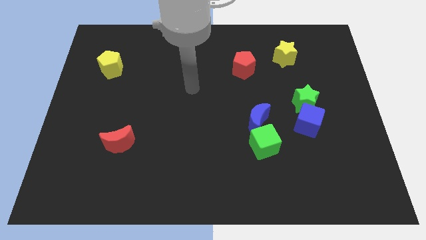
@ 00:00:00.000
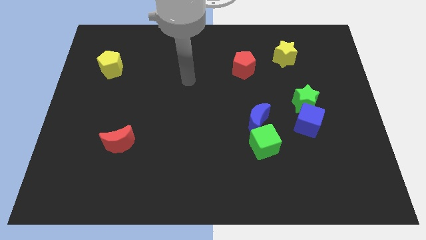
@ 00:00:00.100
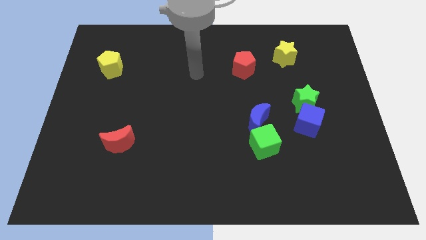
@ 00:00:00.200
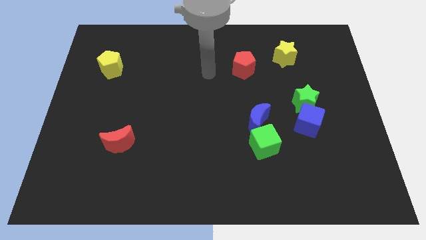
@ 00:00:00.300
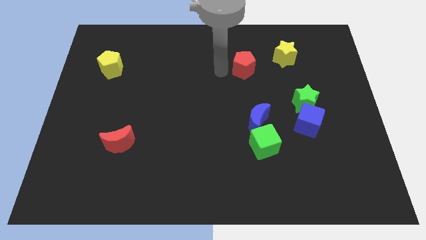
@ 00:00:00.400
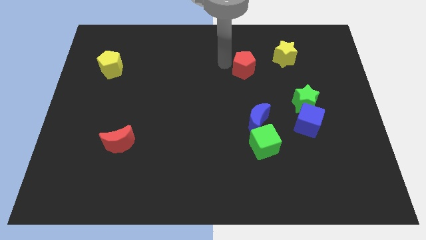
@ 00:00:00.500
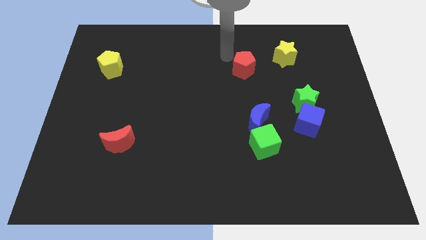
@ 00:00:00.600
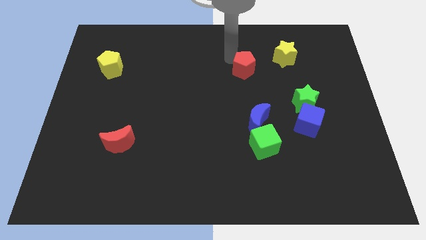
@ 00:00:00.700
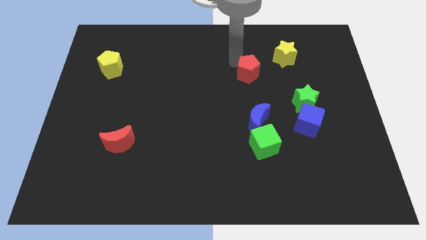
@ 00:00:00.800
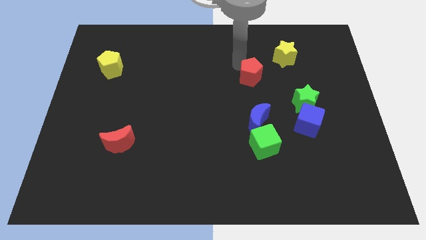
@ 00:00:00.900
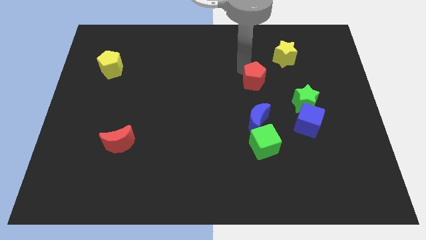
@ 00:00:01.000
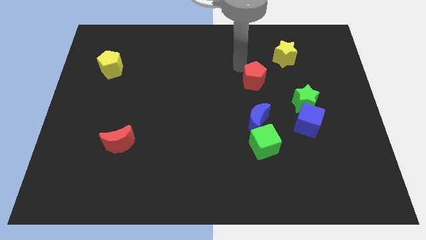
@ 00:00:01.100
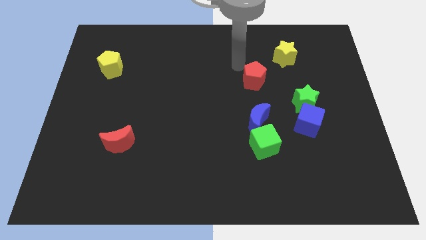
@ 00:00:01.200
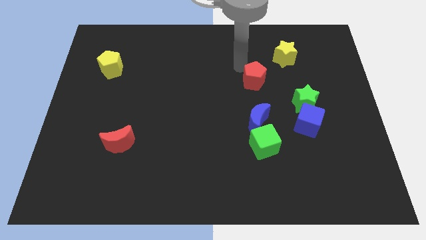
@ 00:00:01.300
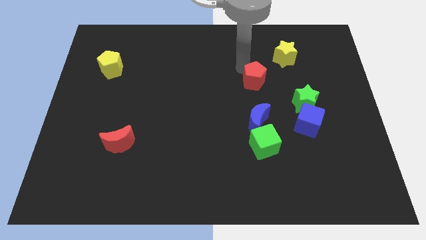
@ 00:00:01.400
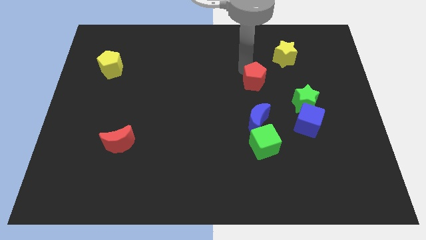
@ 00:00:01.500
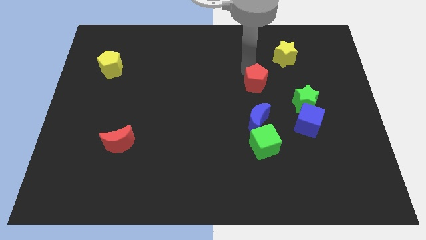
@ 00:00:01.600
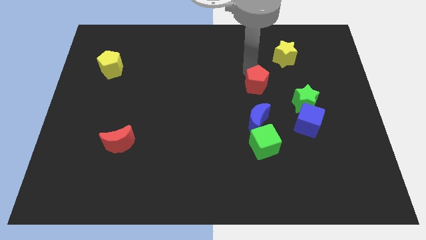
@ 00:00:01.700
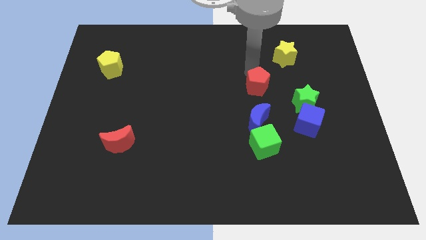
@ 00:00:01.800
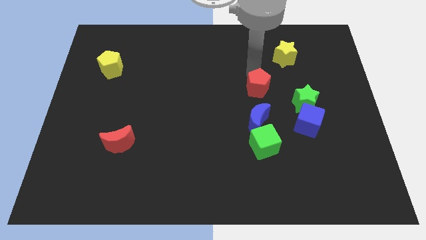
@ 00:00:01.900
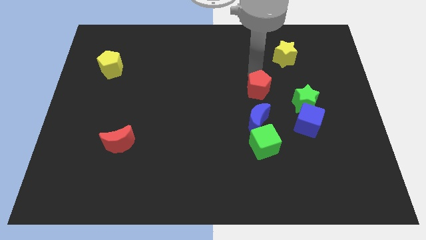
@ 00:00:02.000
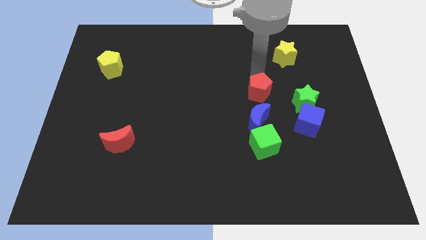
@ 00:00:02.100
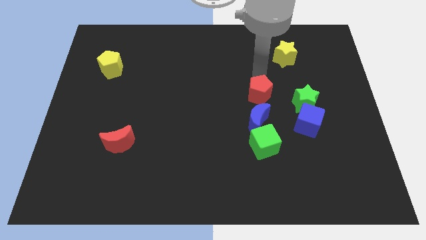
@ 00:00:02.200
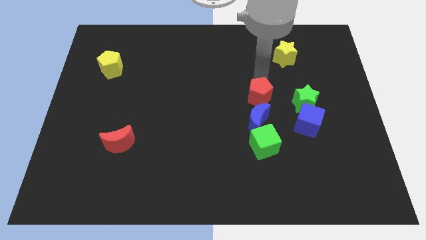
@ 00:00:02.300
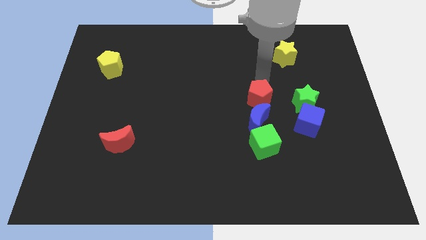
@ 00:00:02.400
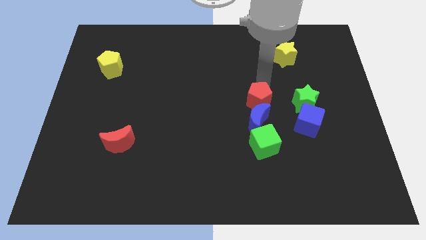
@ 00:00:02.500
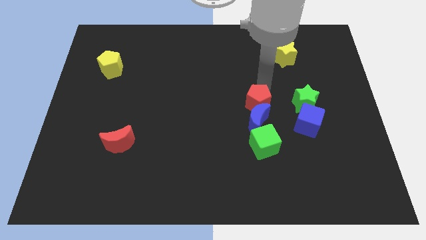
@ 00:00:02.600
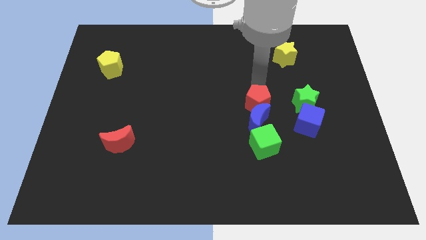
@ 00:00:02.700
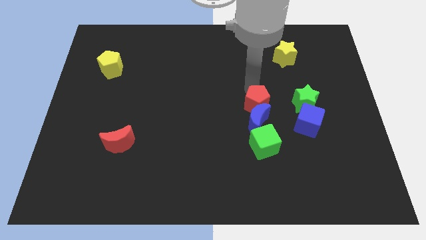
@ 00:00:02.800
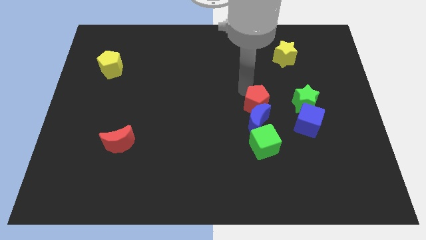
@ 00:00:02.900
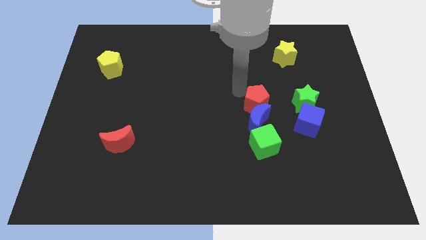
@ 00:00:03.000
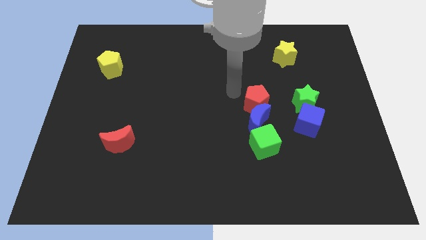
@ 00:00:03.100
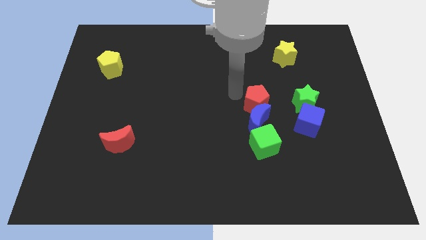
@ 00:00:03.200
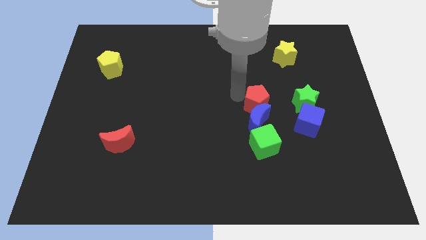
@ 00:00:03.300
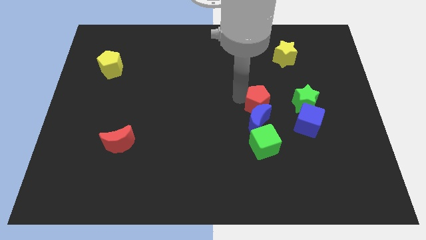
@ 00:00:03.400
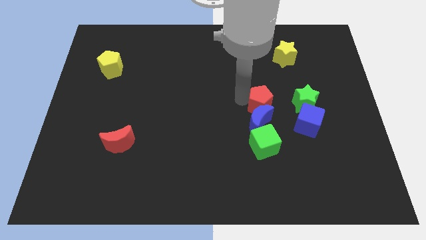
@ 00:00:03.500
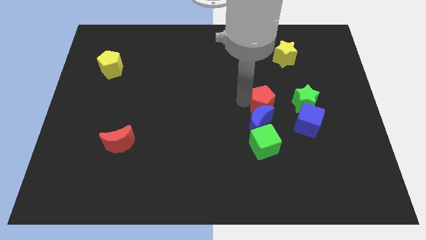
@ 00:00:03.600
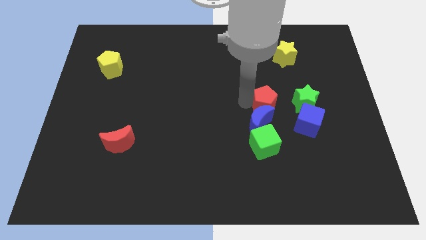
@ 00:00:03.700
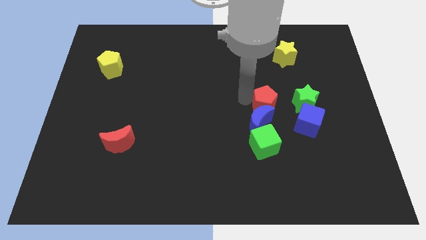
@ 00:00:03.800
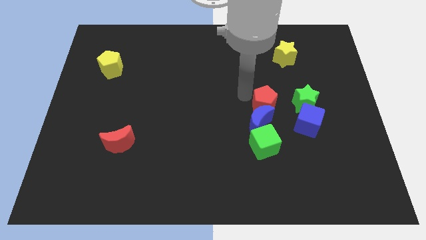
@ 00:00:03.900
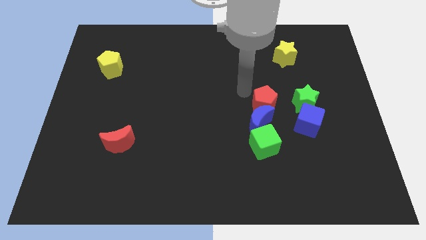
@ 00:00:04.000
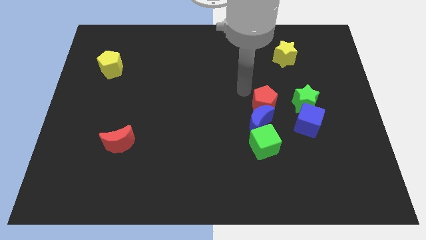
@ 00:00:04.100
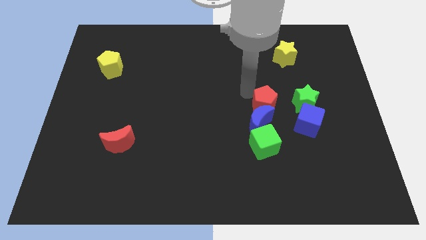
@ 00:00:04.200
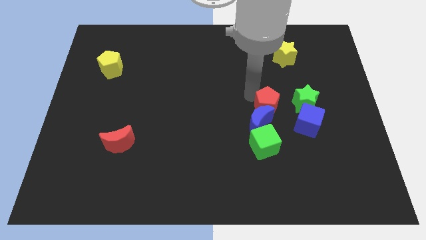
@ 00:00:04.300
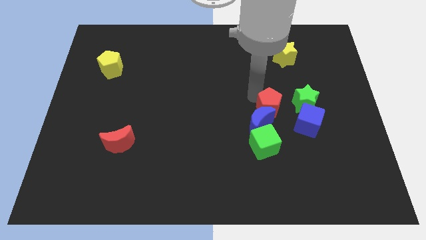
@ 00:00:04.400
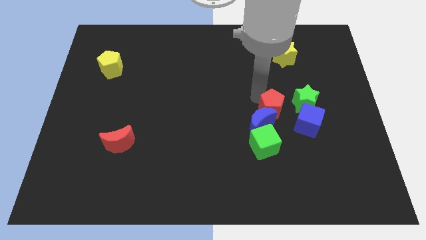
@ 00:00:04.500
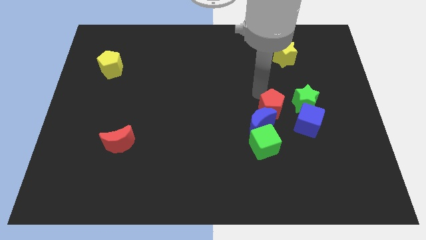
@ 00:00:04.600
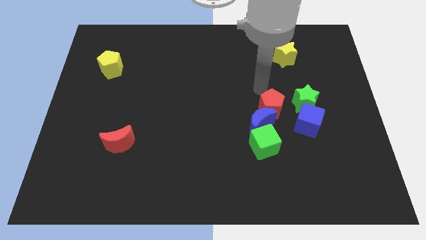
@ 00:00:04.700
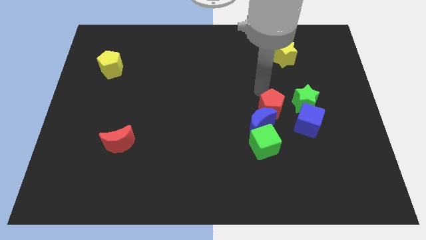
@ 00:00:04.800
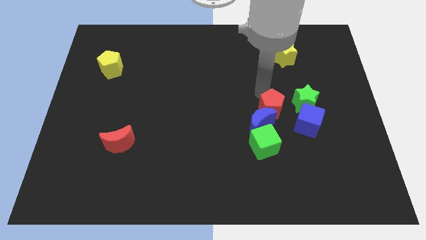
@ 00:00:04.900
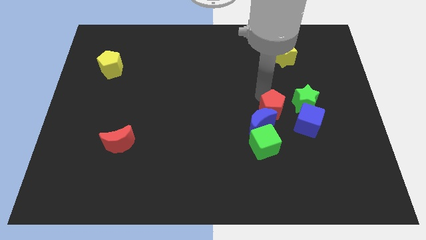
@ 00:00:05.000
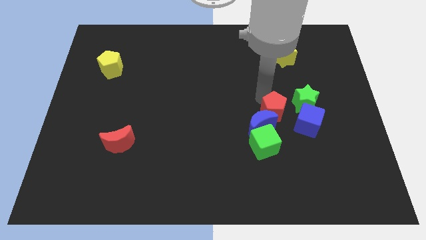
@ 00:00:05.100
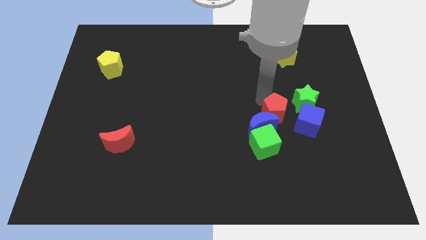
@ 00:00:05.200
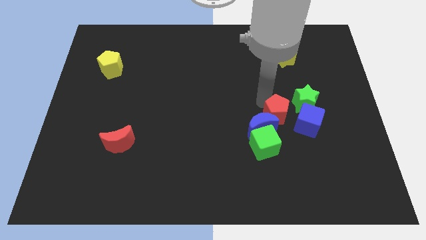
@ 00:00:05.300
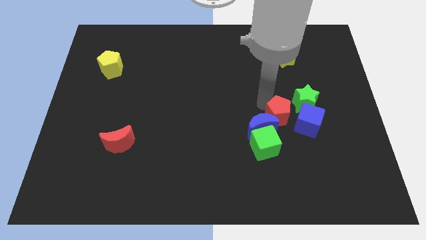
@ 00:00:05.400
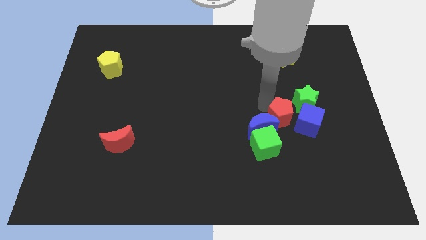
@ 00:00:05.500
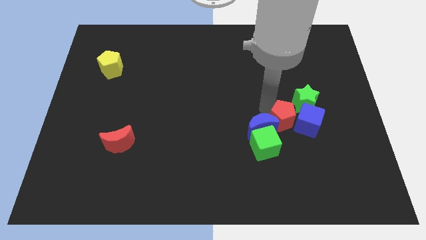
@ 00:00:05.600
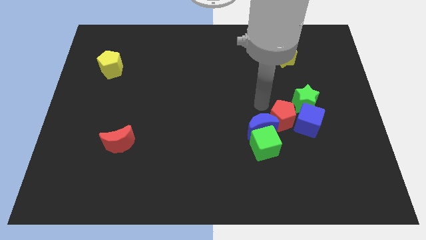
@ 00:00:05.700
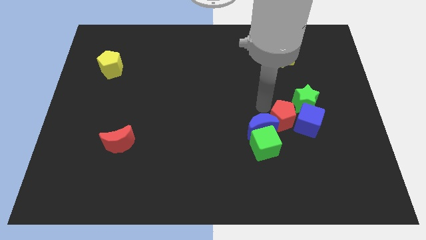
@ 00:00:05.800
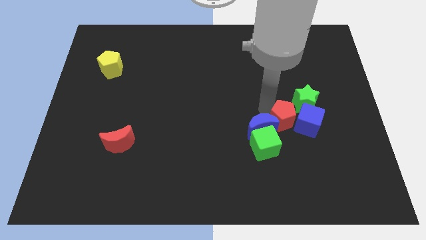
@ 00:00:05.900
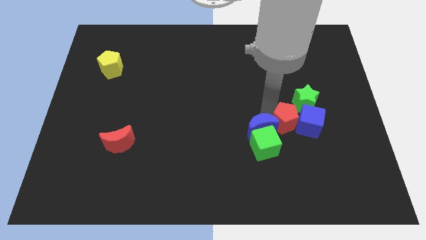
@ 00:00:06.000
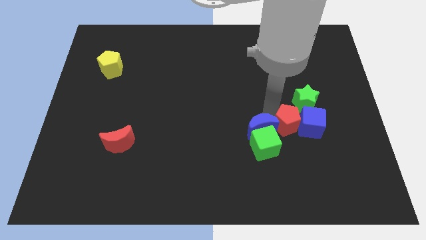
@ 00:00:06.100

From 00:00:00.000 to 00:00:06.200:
push the red pentagon below the green star

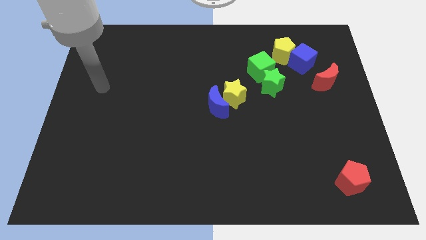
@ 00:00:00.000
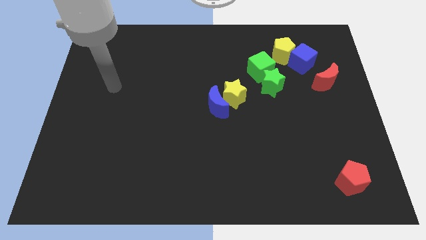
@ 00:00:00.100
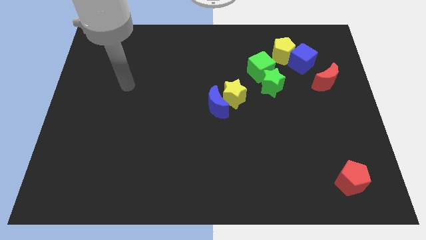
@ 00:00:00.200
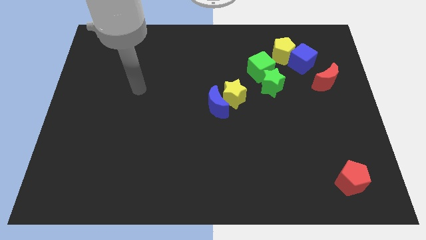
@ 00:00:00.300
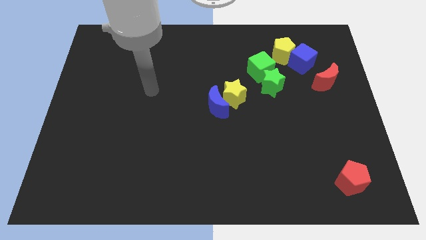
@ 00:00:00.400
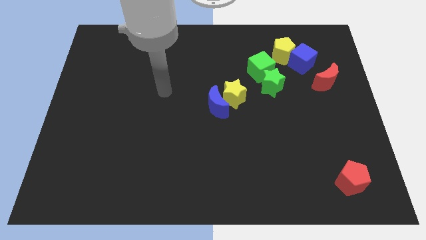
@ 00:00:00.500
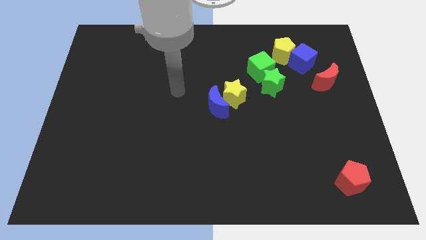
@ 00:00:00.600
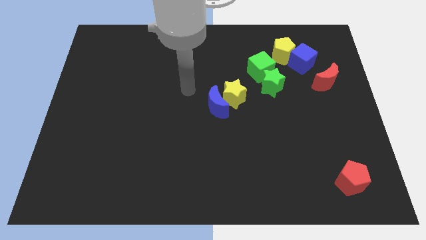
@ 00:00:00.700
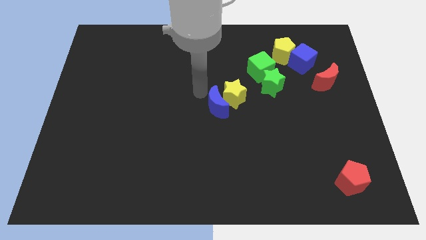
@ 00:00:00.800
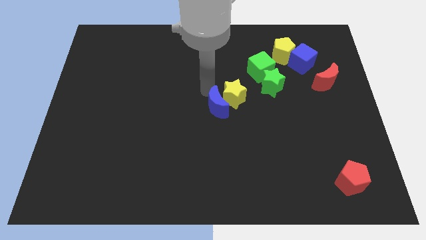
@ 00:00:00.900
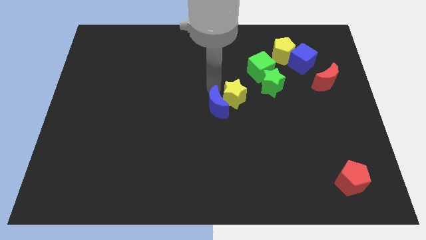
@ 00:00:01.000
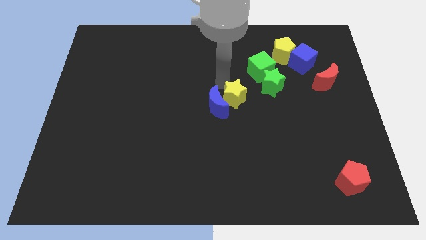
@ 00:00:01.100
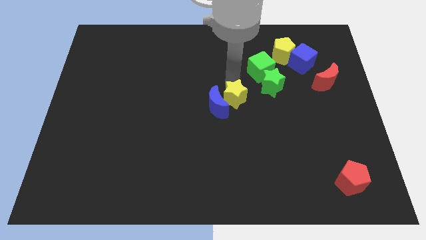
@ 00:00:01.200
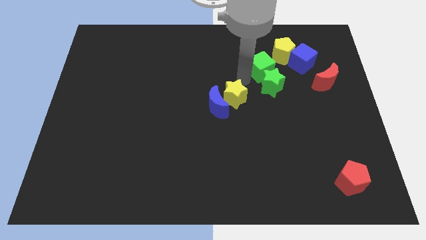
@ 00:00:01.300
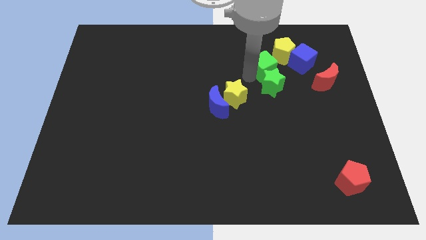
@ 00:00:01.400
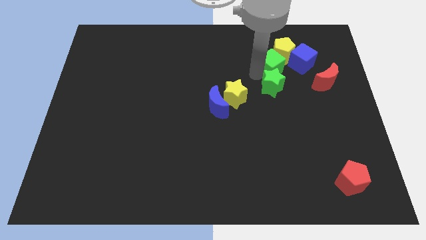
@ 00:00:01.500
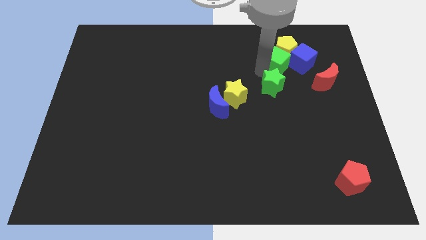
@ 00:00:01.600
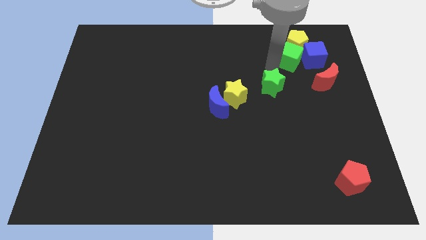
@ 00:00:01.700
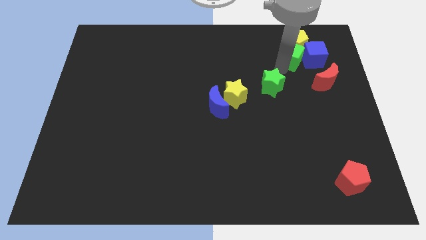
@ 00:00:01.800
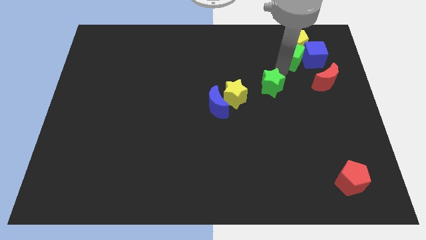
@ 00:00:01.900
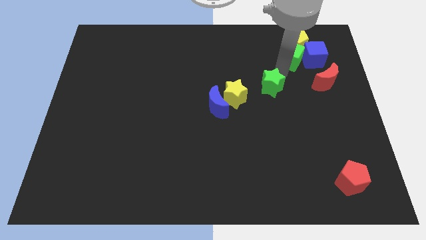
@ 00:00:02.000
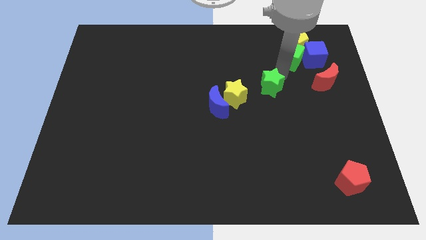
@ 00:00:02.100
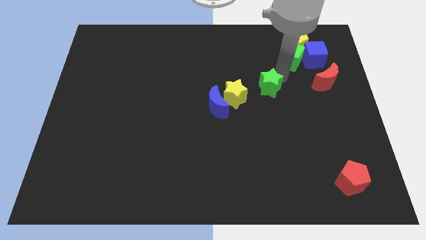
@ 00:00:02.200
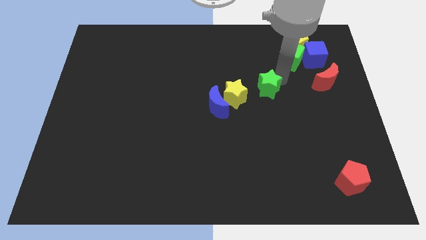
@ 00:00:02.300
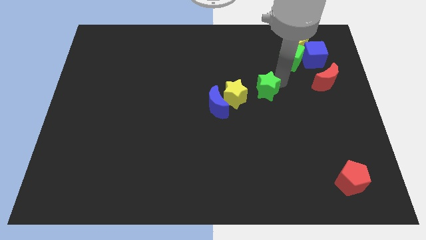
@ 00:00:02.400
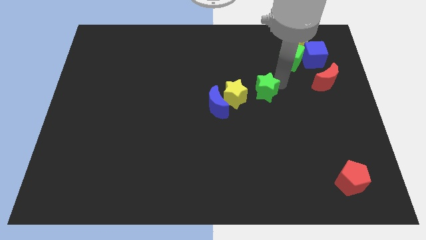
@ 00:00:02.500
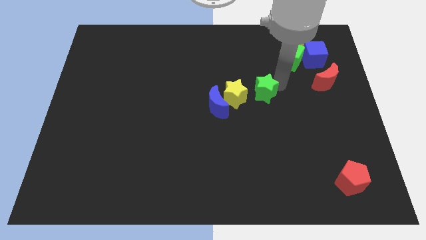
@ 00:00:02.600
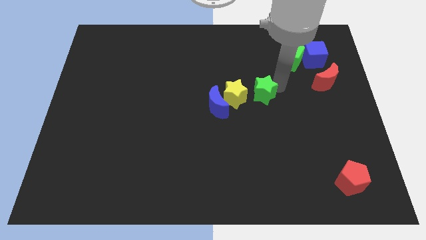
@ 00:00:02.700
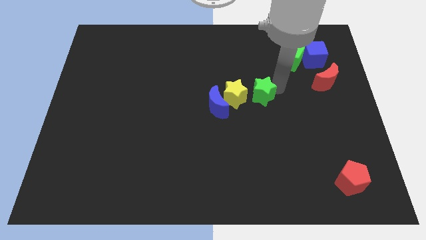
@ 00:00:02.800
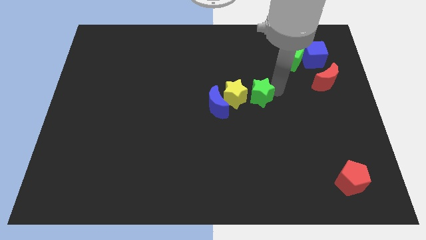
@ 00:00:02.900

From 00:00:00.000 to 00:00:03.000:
put the green star to the bottom right side of the yellow star
